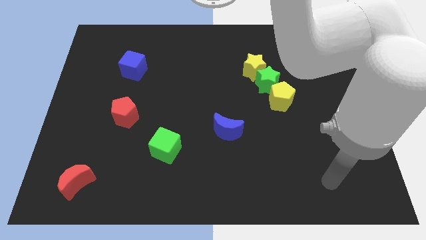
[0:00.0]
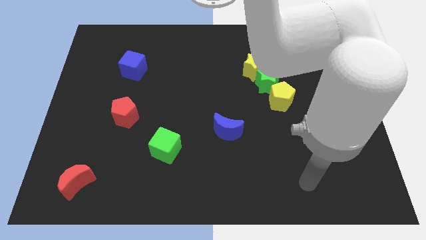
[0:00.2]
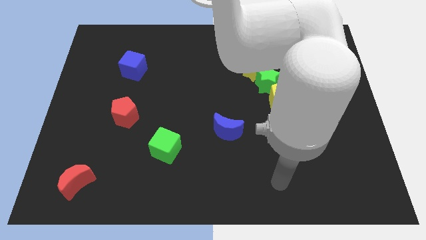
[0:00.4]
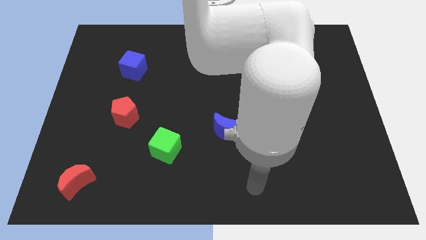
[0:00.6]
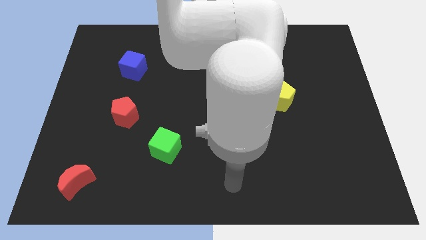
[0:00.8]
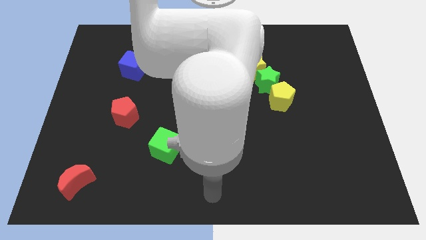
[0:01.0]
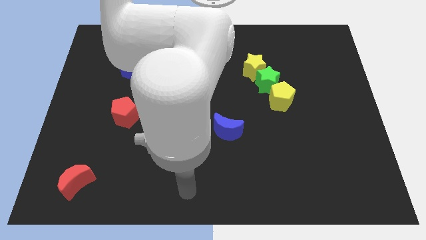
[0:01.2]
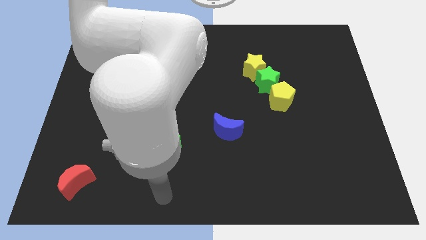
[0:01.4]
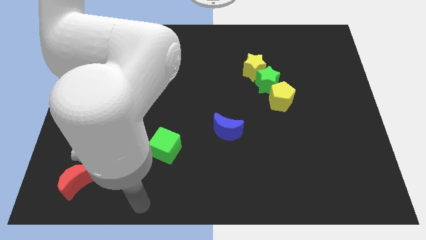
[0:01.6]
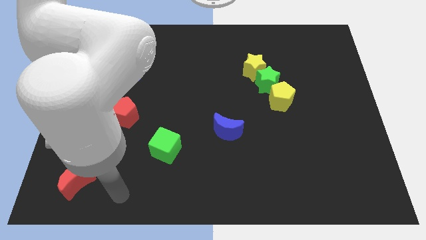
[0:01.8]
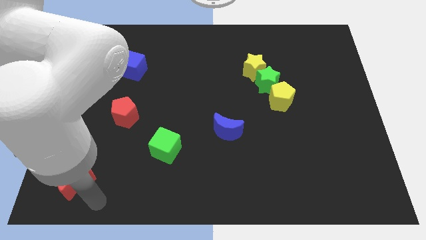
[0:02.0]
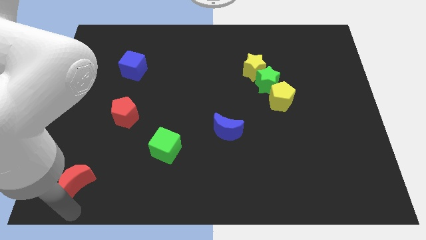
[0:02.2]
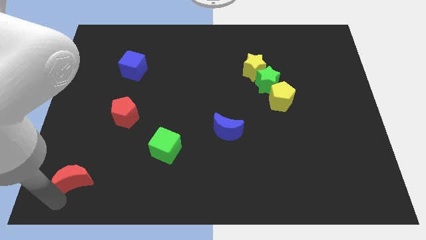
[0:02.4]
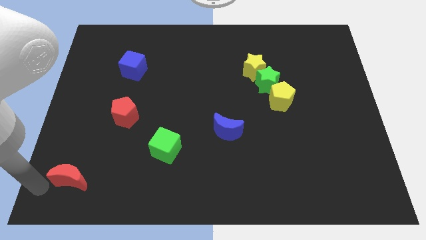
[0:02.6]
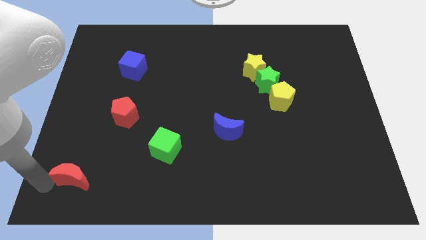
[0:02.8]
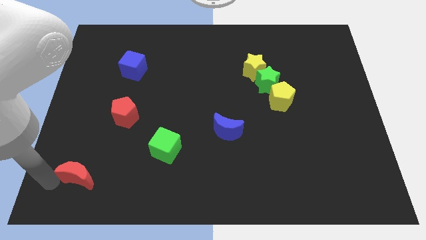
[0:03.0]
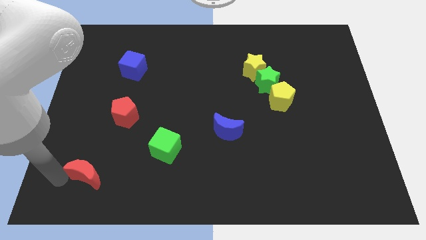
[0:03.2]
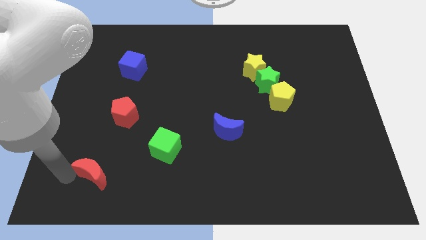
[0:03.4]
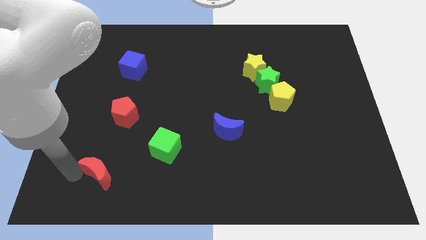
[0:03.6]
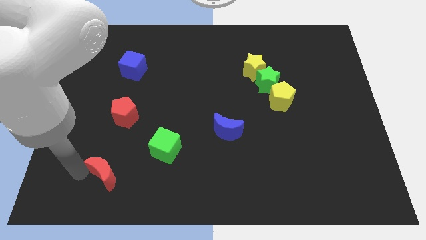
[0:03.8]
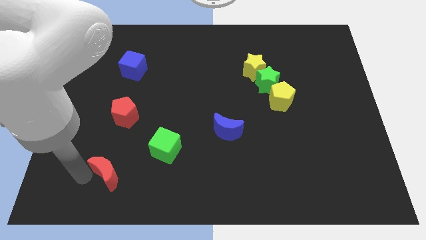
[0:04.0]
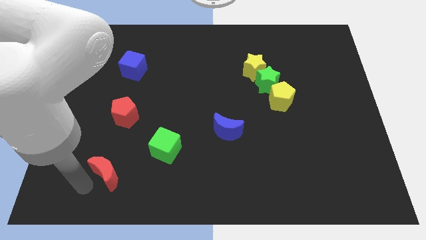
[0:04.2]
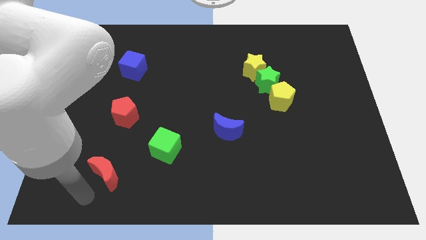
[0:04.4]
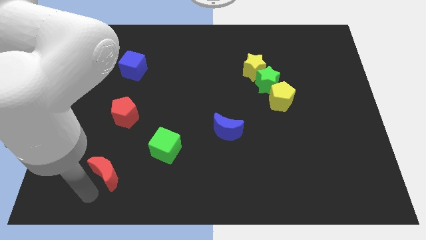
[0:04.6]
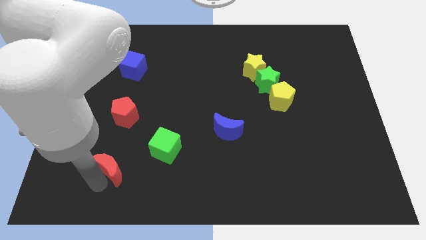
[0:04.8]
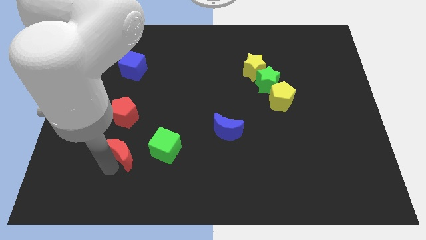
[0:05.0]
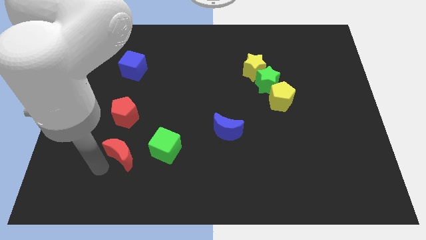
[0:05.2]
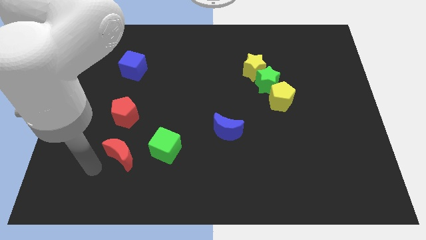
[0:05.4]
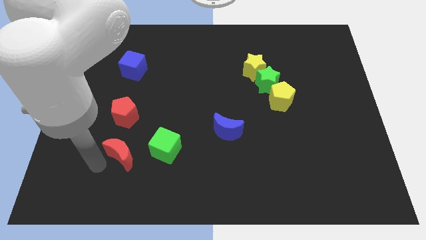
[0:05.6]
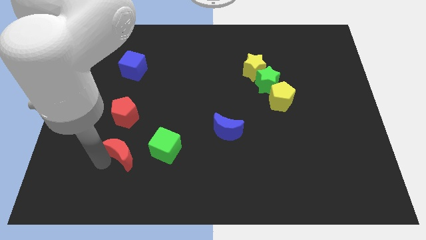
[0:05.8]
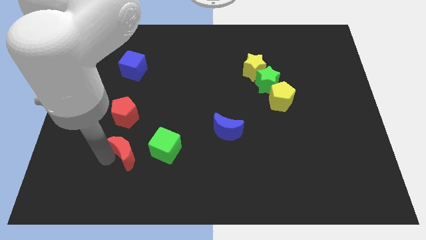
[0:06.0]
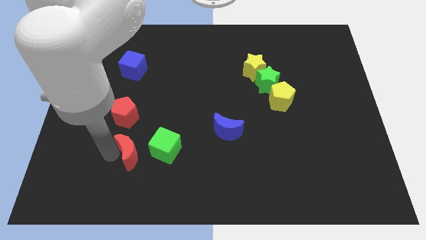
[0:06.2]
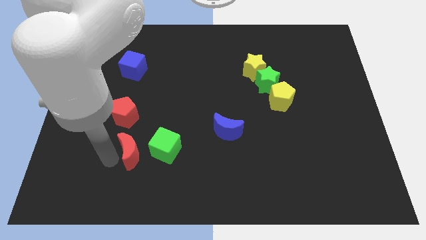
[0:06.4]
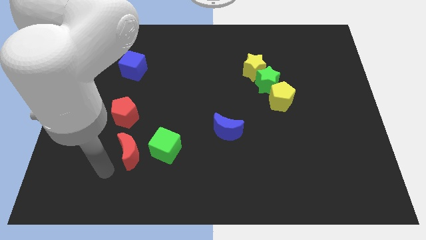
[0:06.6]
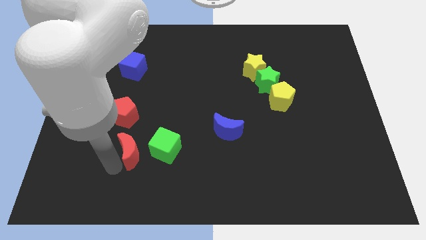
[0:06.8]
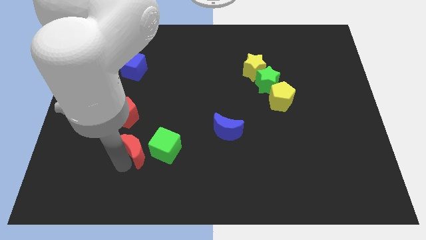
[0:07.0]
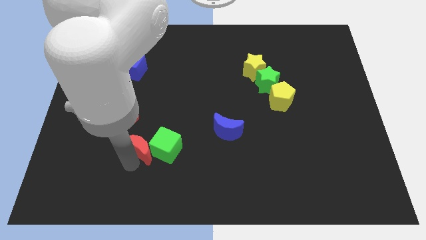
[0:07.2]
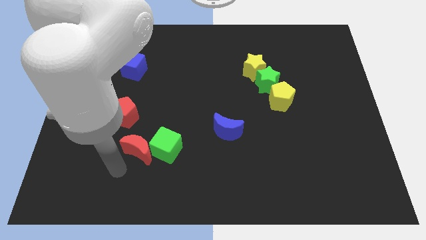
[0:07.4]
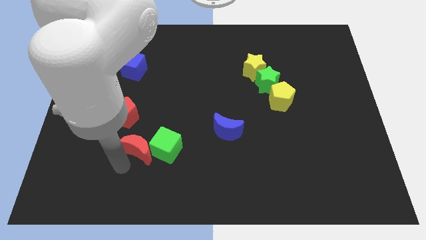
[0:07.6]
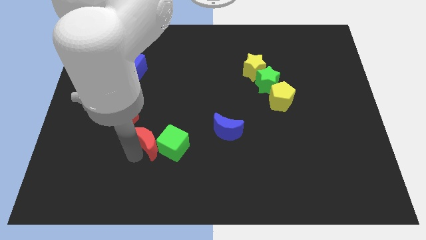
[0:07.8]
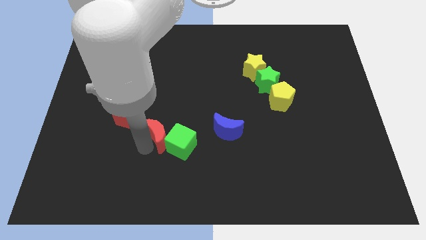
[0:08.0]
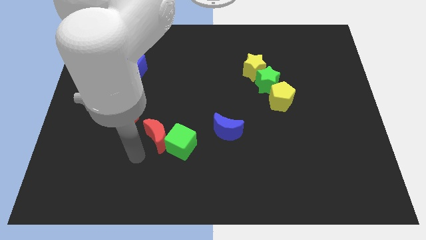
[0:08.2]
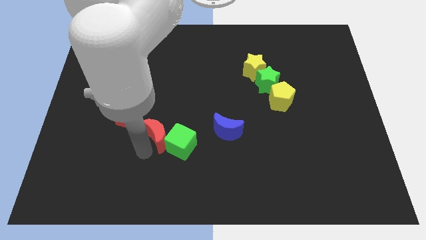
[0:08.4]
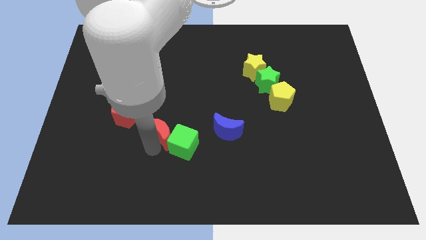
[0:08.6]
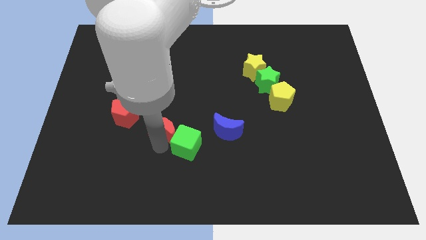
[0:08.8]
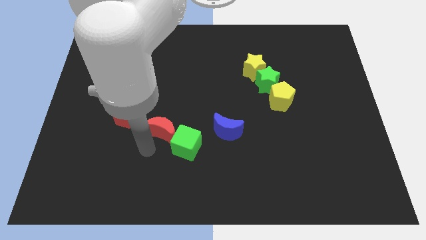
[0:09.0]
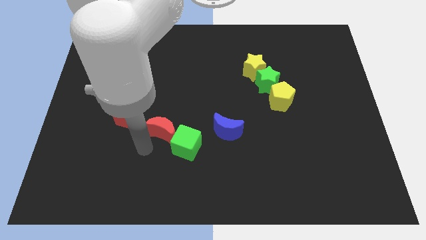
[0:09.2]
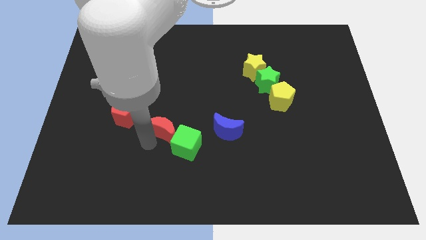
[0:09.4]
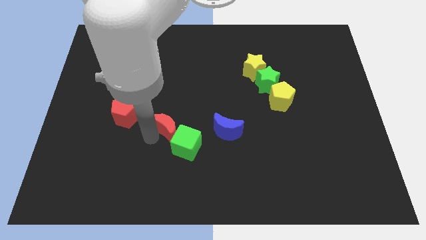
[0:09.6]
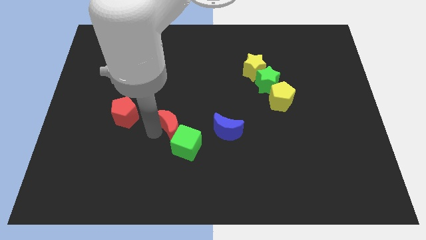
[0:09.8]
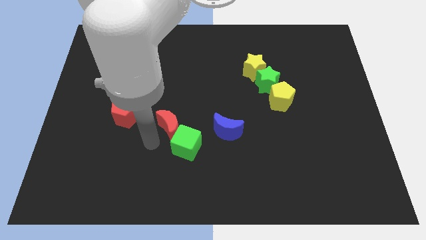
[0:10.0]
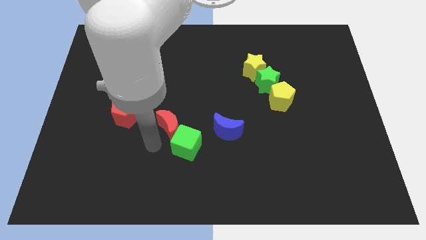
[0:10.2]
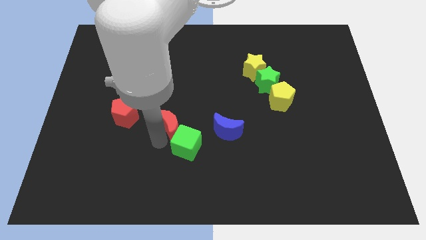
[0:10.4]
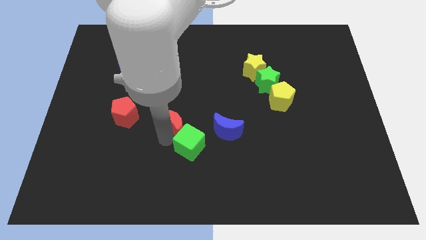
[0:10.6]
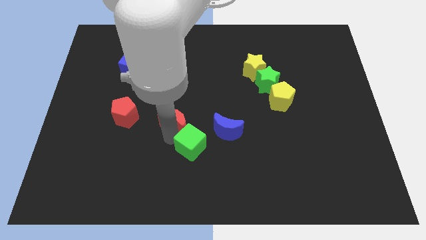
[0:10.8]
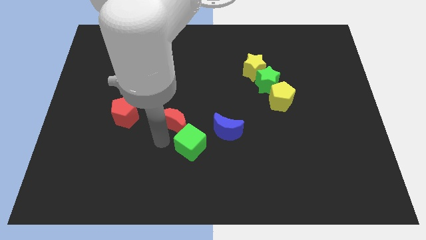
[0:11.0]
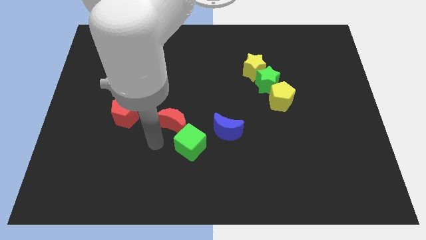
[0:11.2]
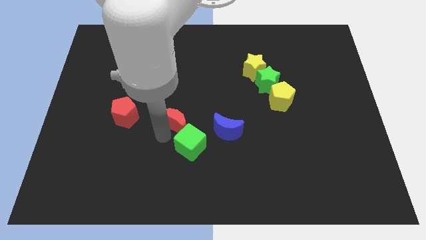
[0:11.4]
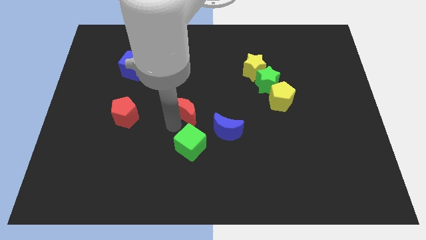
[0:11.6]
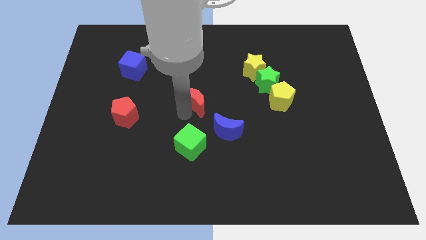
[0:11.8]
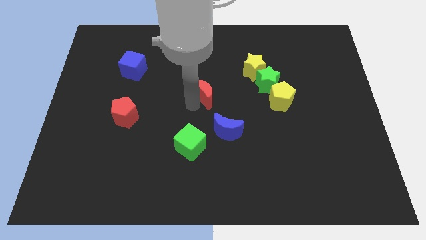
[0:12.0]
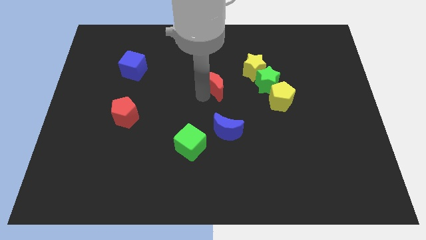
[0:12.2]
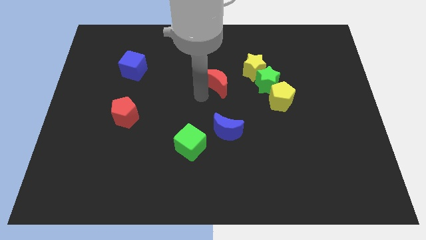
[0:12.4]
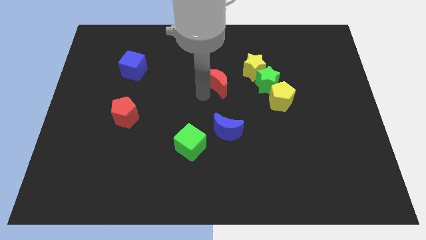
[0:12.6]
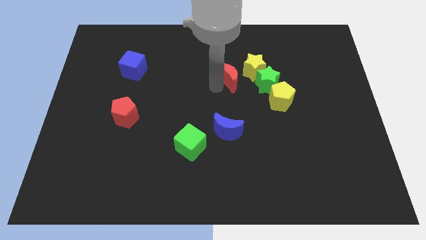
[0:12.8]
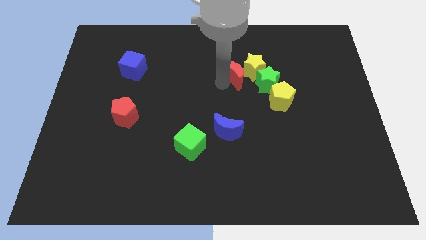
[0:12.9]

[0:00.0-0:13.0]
put the red moon diagonally up and to the left of the green star
